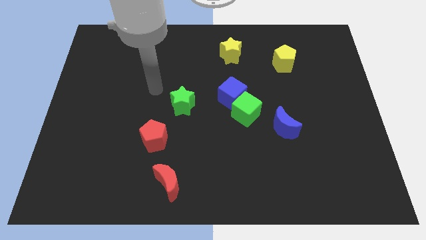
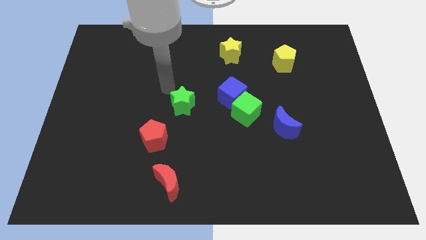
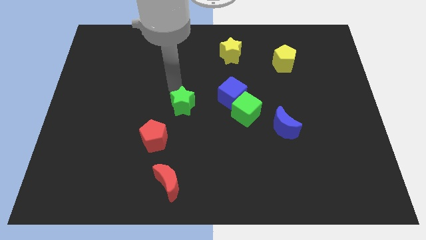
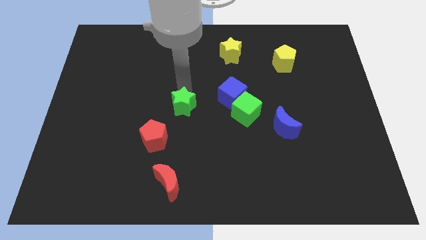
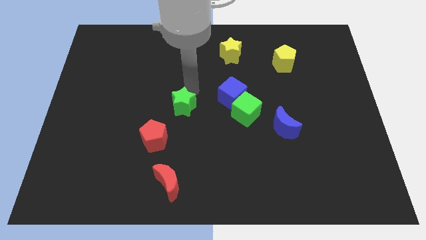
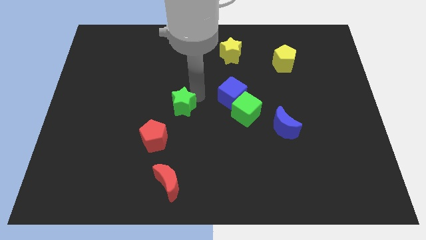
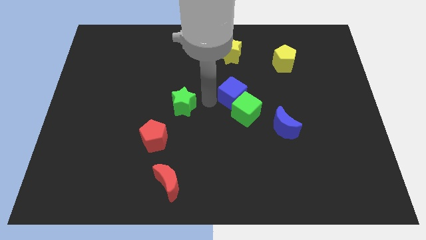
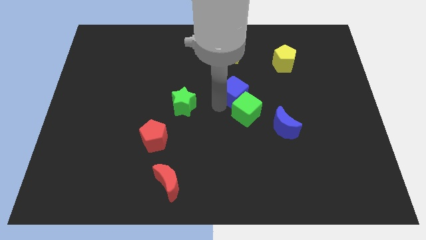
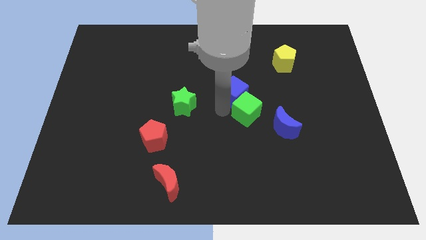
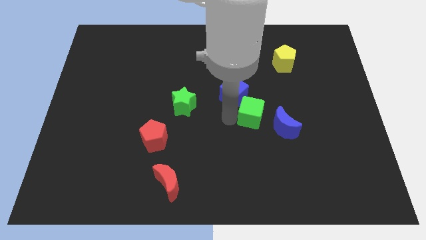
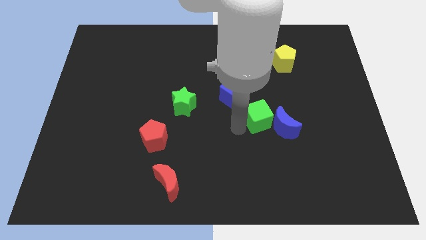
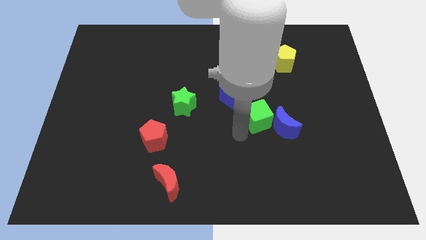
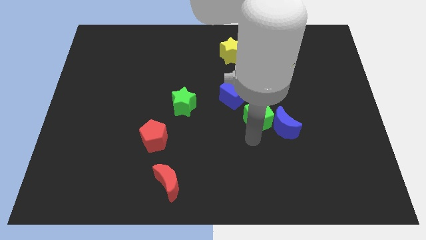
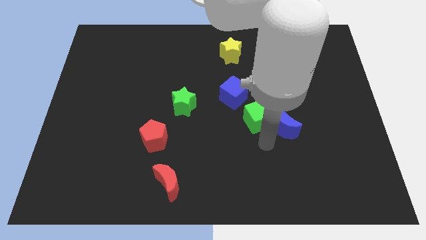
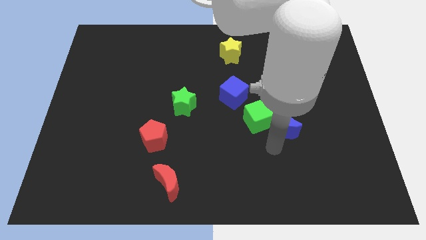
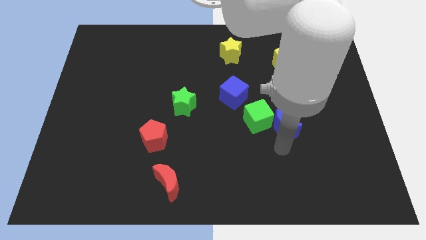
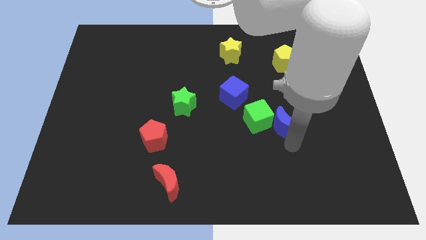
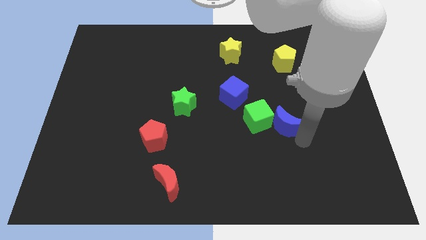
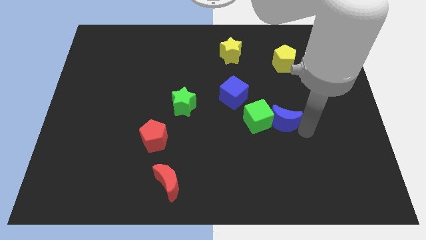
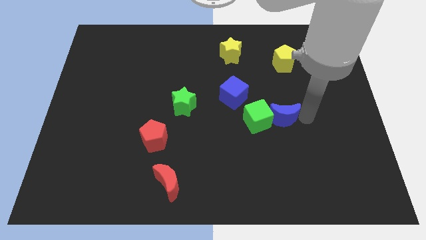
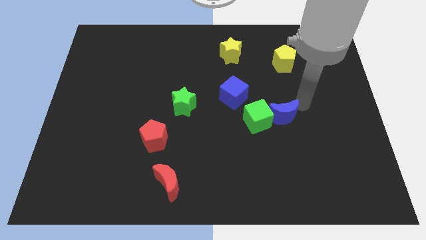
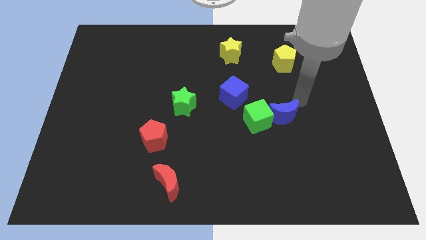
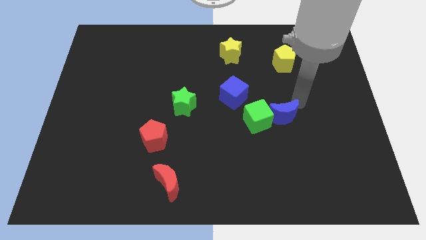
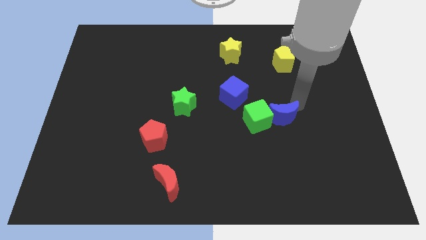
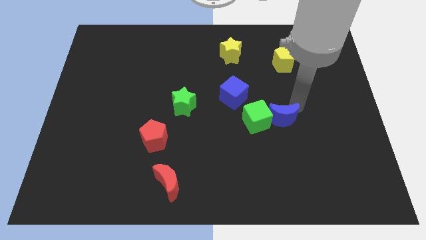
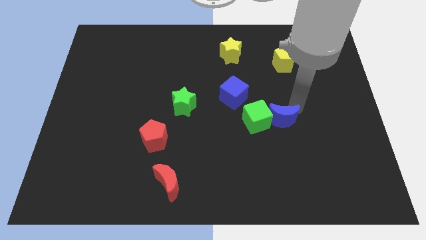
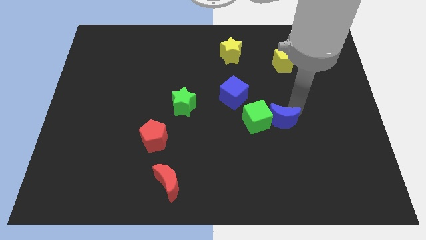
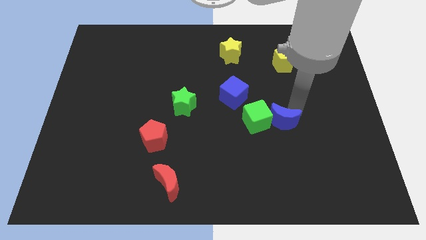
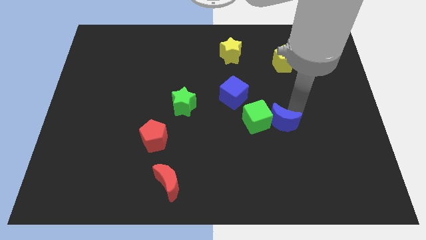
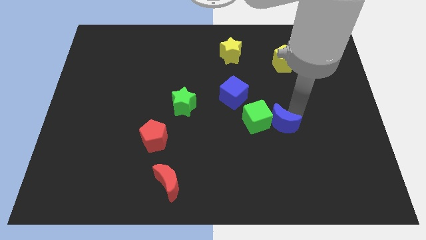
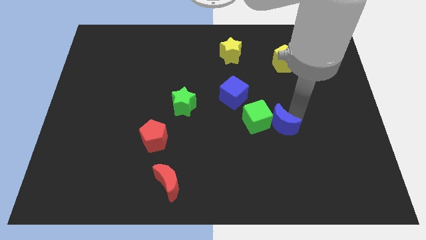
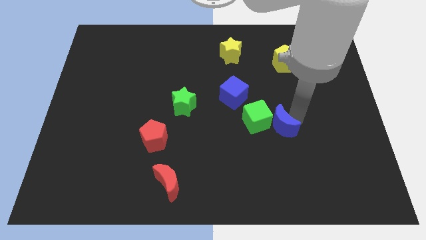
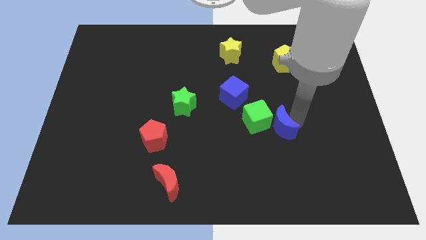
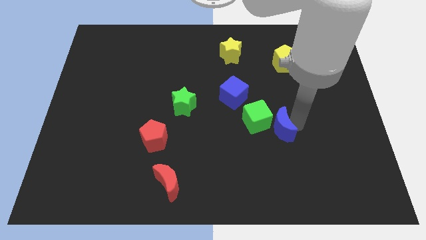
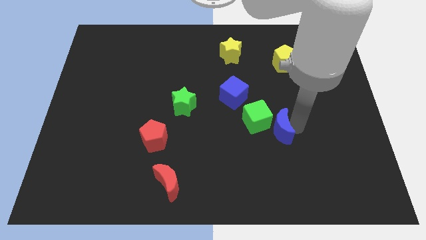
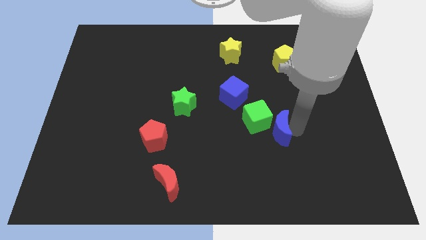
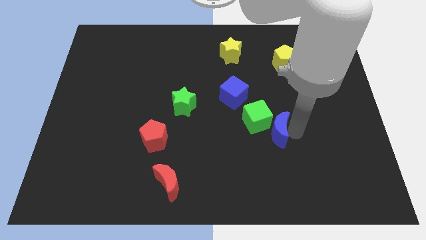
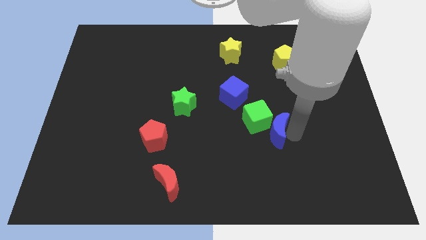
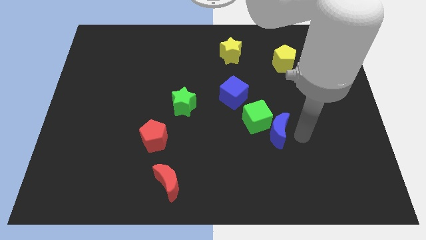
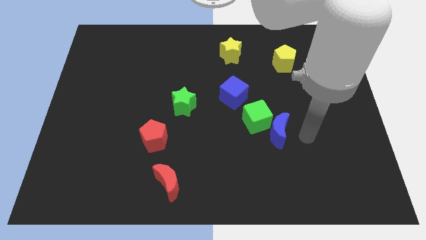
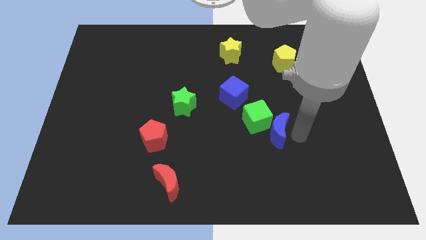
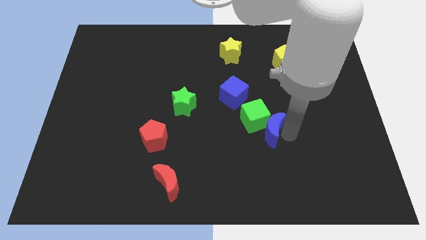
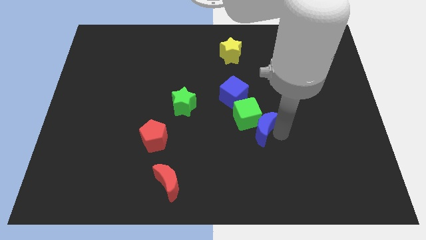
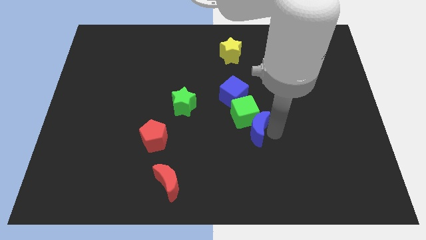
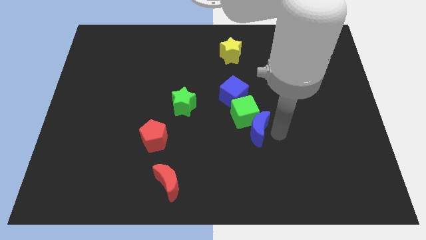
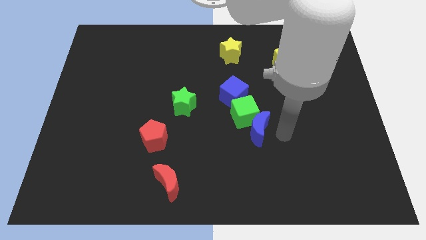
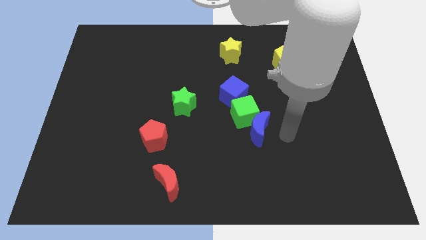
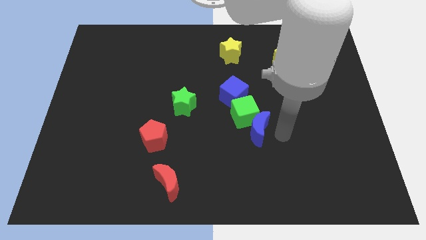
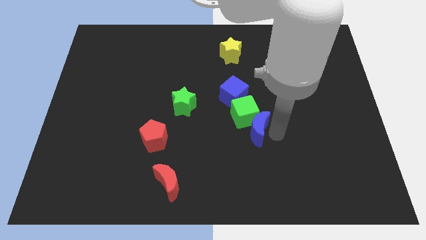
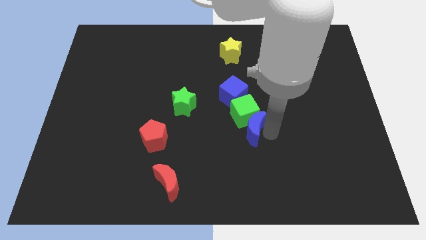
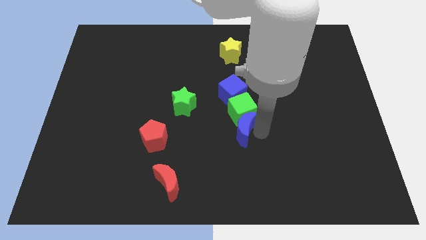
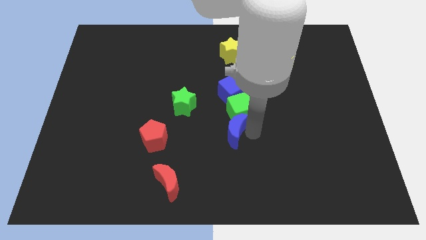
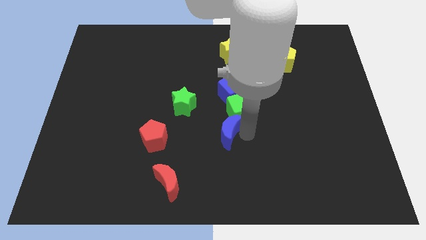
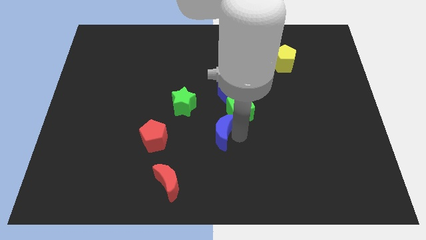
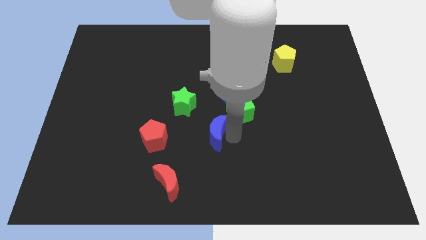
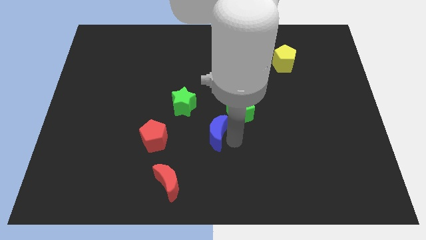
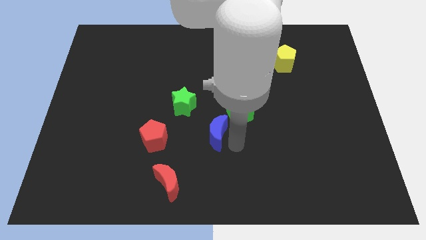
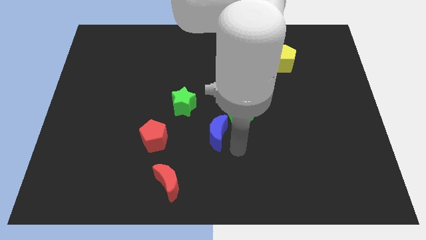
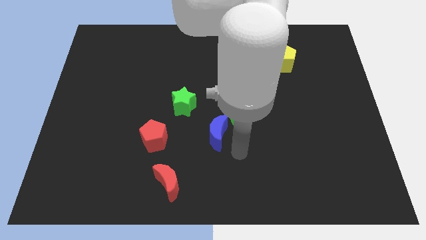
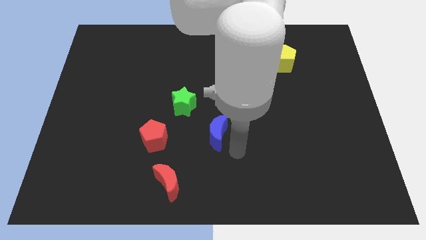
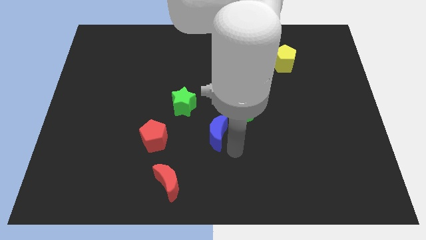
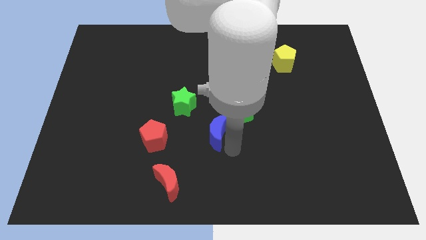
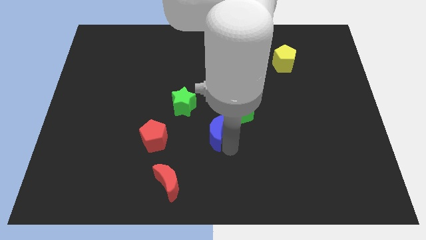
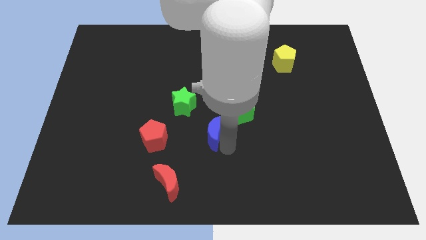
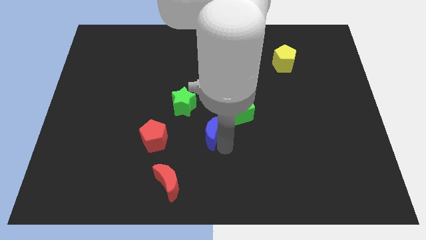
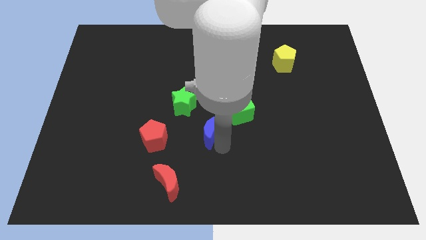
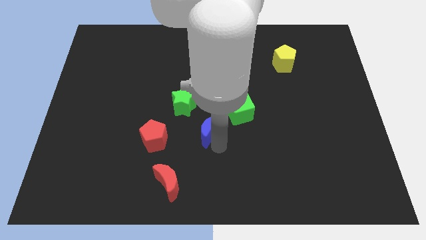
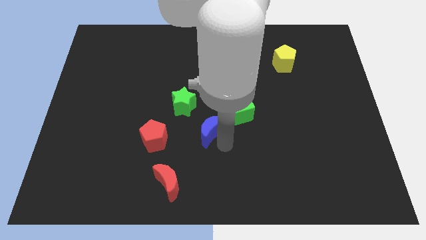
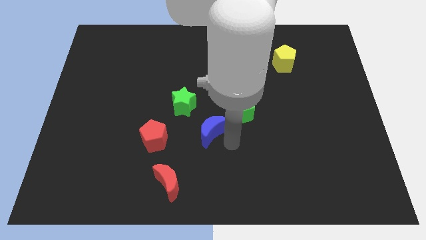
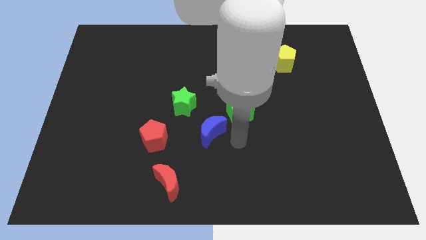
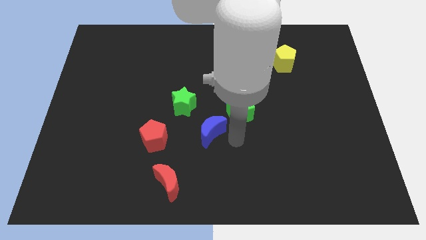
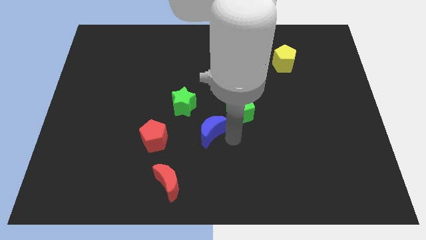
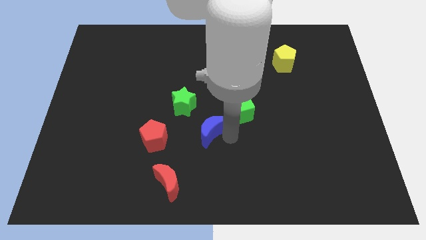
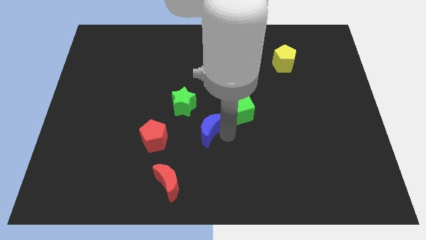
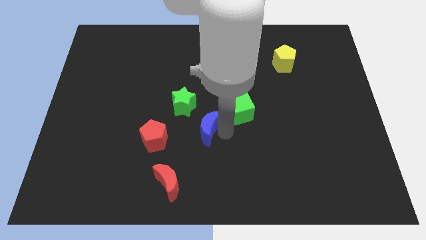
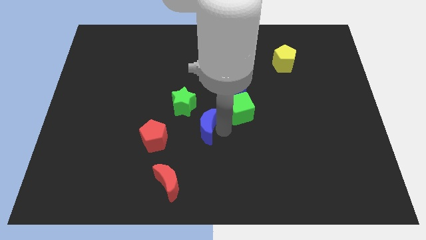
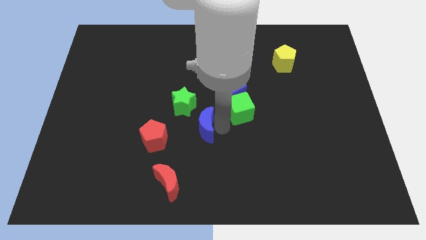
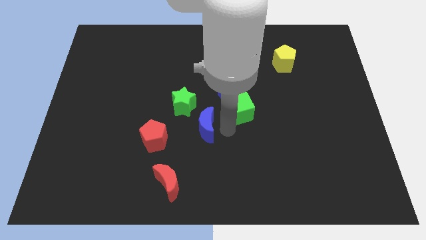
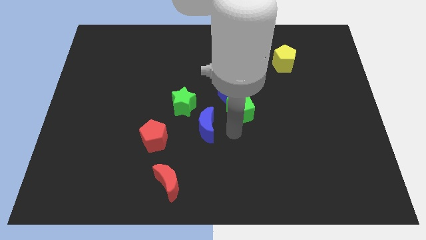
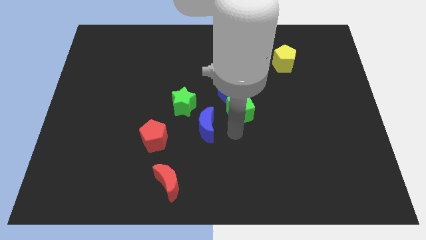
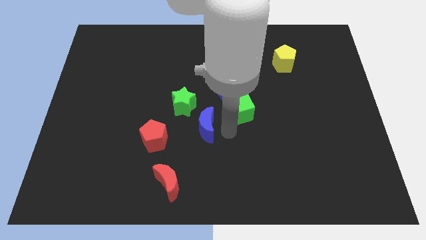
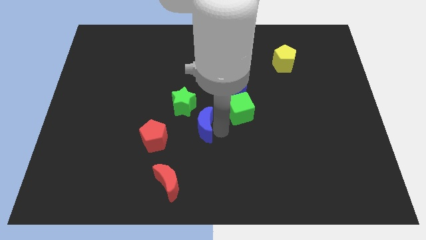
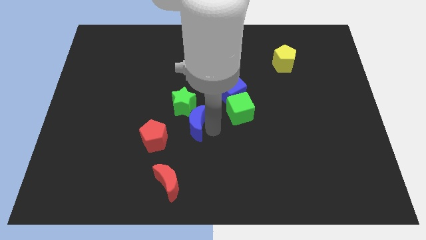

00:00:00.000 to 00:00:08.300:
slide the blue moon to the left
